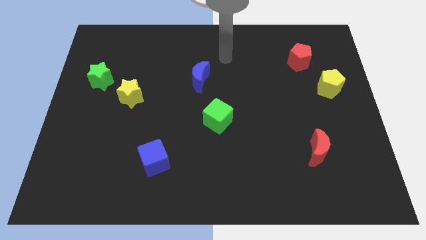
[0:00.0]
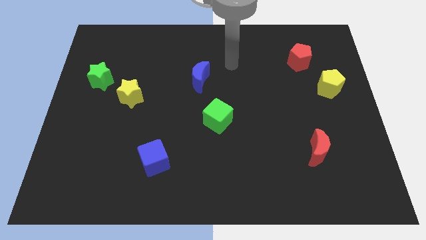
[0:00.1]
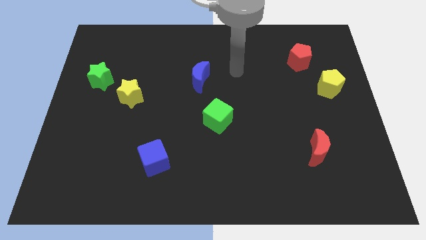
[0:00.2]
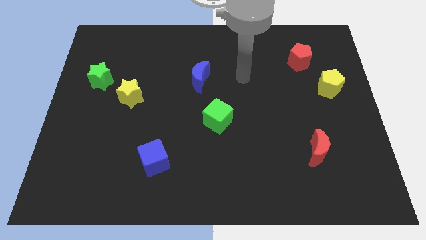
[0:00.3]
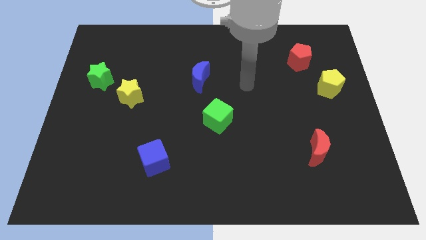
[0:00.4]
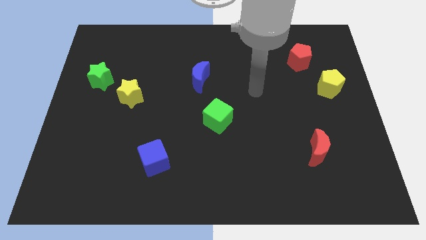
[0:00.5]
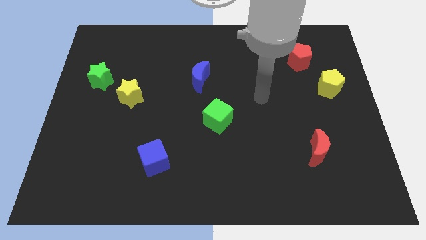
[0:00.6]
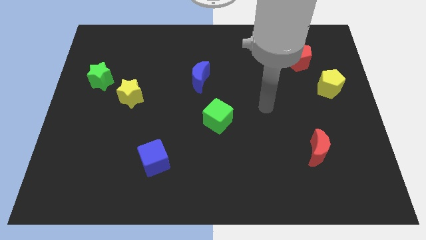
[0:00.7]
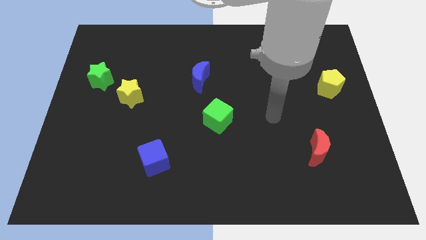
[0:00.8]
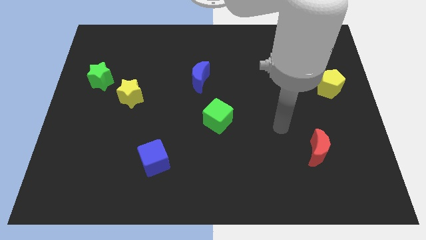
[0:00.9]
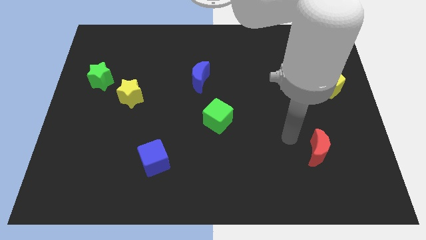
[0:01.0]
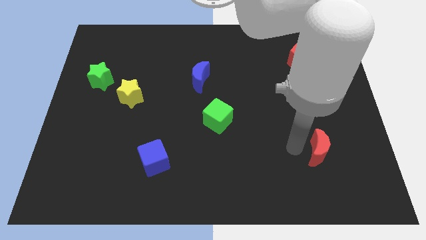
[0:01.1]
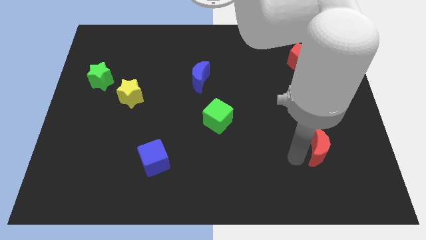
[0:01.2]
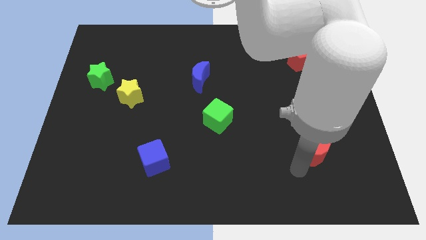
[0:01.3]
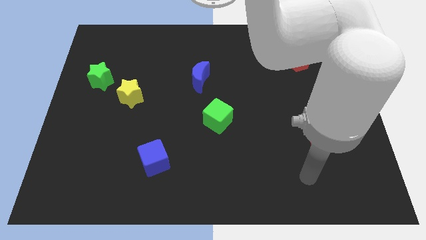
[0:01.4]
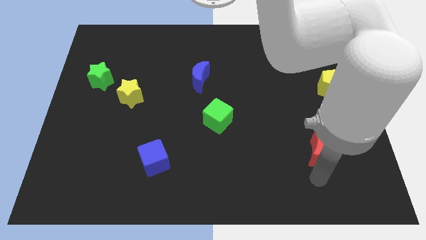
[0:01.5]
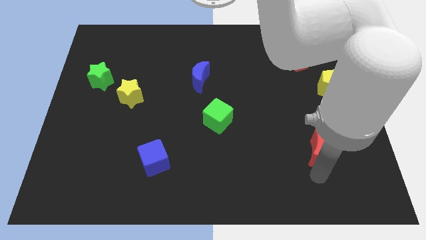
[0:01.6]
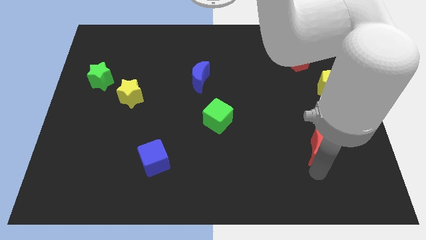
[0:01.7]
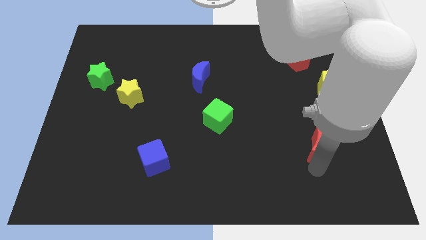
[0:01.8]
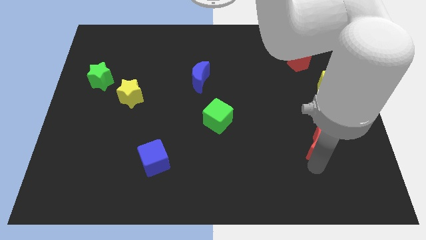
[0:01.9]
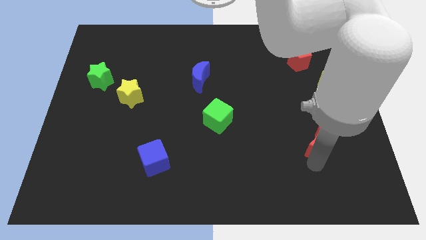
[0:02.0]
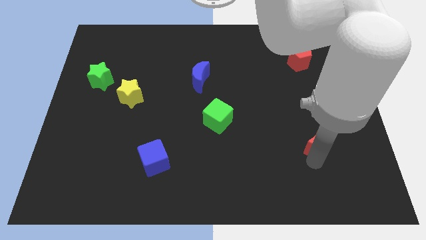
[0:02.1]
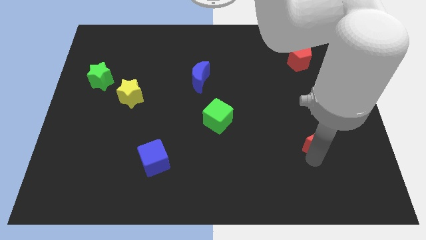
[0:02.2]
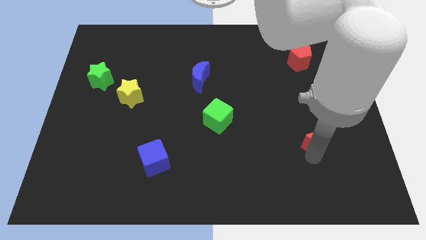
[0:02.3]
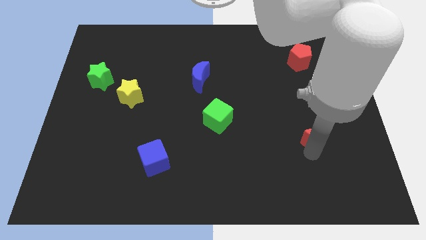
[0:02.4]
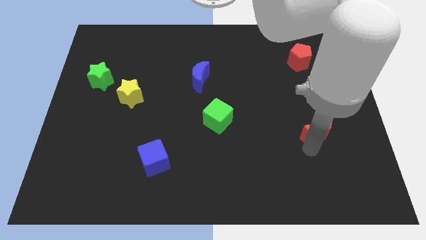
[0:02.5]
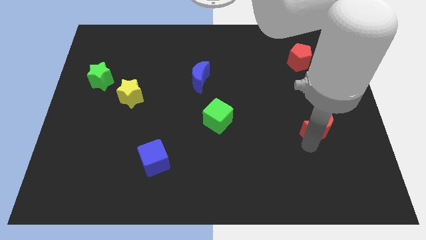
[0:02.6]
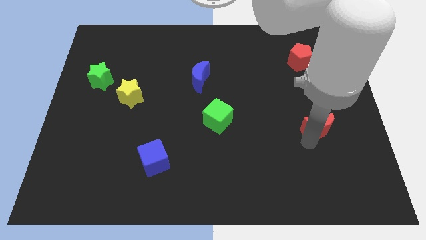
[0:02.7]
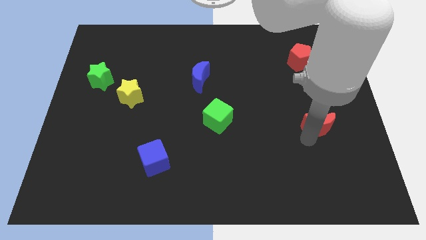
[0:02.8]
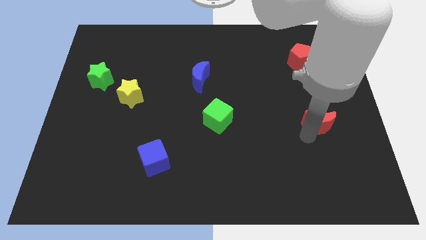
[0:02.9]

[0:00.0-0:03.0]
move the red moon a bit upwards

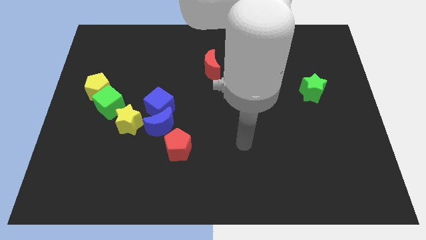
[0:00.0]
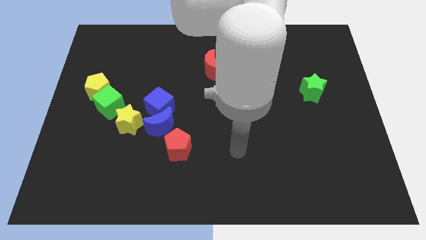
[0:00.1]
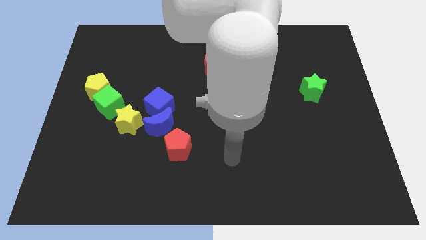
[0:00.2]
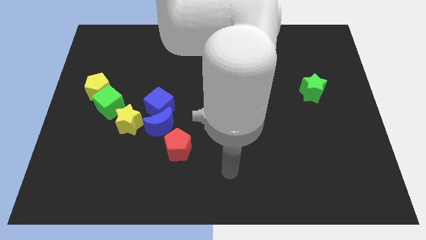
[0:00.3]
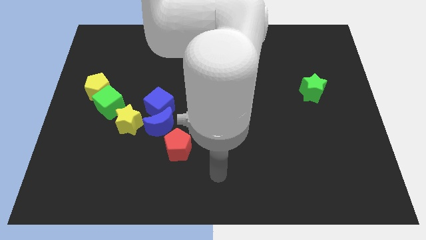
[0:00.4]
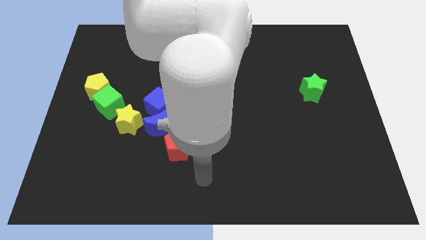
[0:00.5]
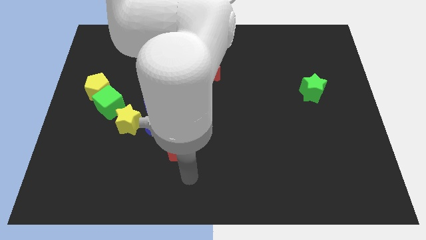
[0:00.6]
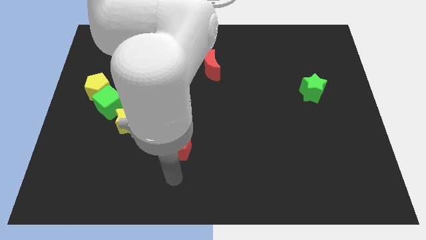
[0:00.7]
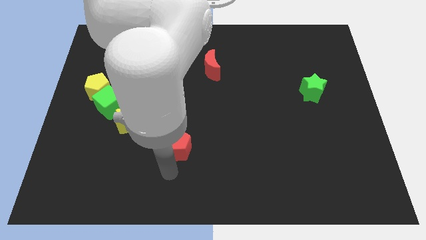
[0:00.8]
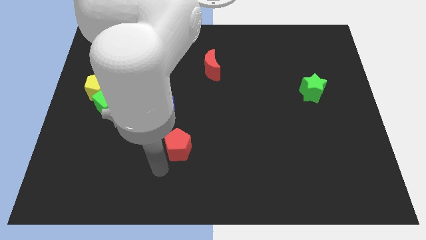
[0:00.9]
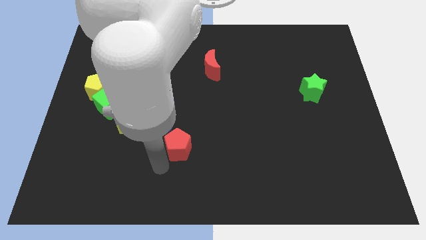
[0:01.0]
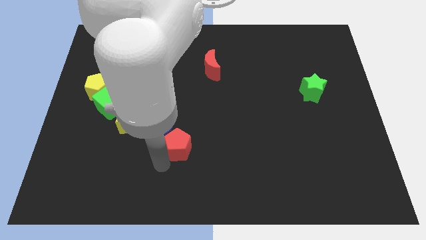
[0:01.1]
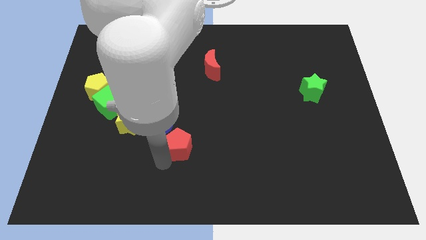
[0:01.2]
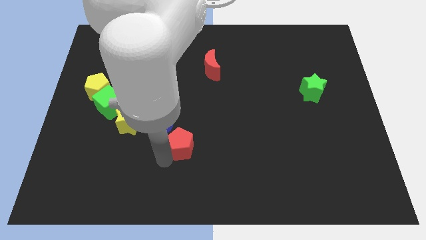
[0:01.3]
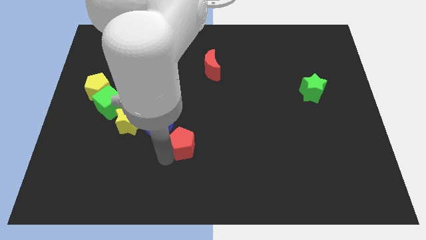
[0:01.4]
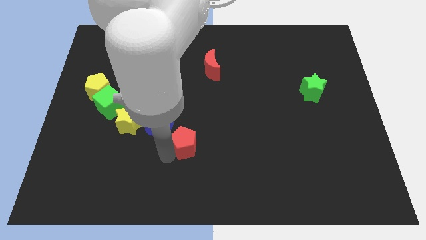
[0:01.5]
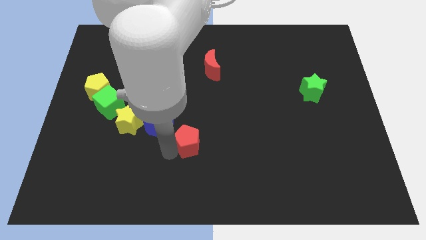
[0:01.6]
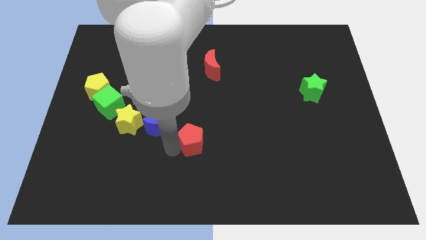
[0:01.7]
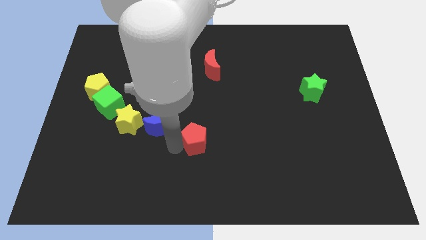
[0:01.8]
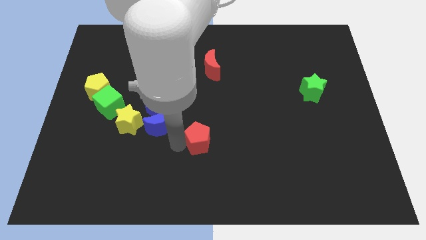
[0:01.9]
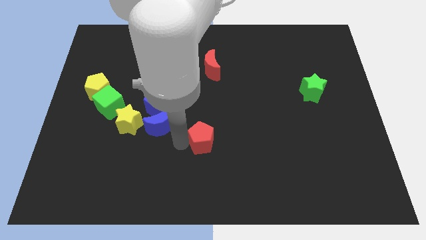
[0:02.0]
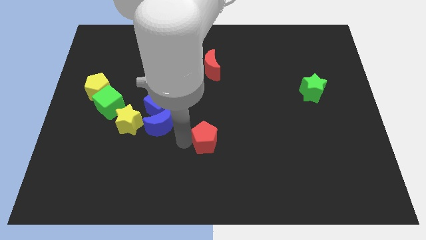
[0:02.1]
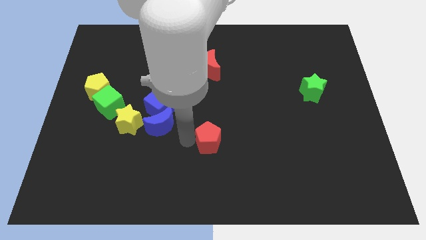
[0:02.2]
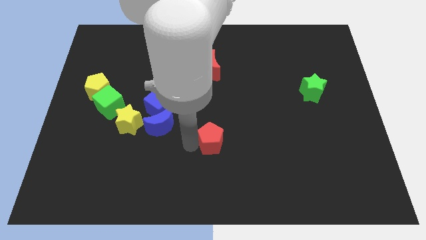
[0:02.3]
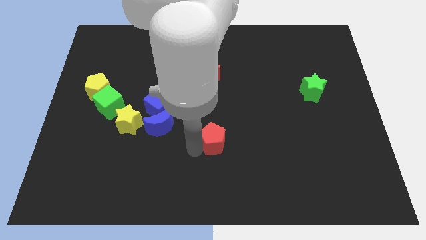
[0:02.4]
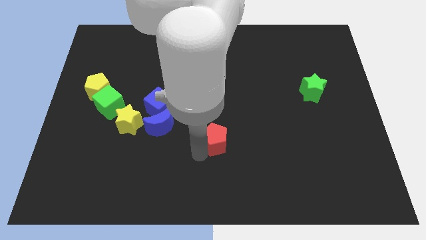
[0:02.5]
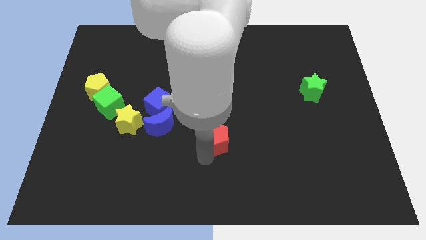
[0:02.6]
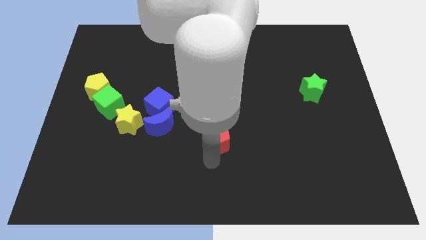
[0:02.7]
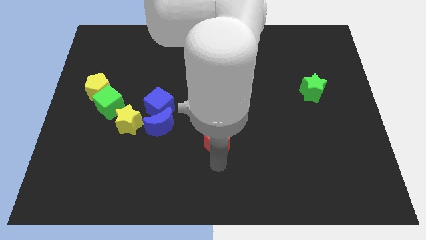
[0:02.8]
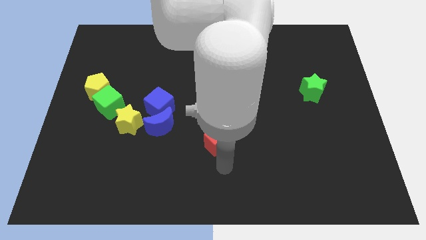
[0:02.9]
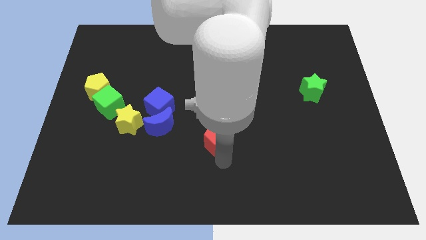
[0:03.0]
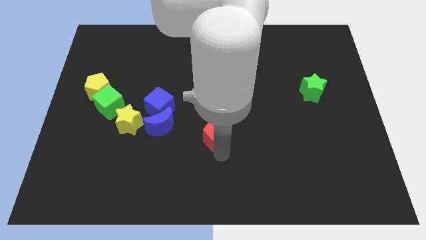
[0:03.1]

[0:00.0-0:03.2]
slightly move the red pentagon up and right diagonally

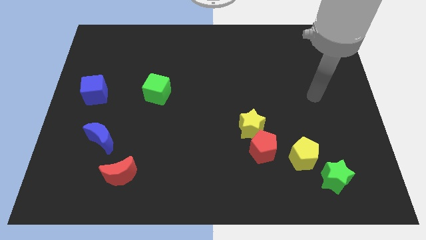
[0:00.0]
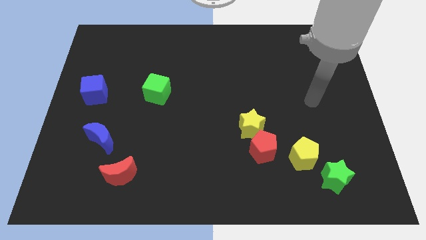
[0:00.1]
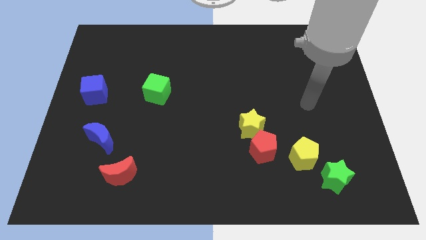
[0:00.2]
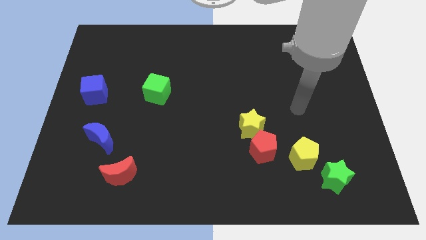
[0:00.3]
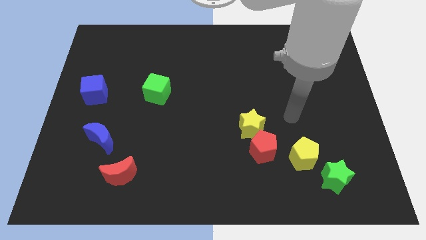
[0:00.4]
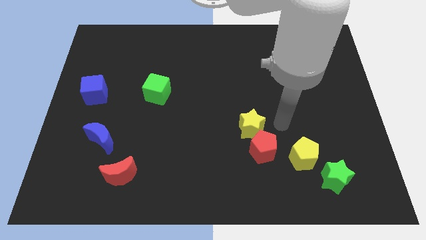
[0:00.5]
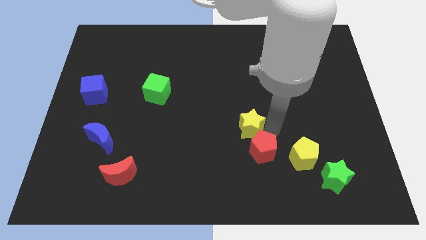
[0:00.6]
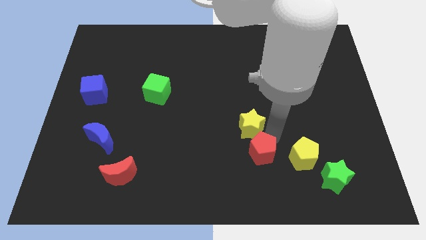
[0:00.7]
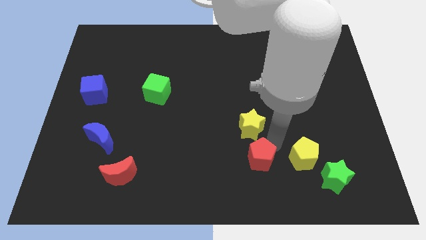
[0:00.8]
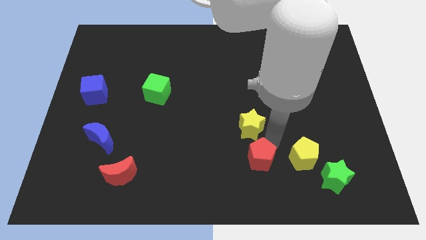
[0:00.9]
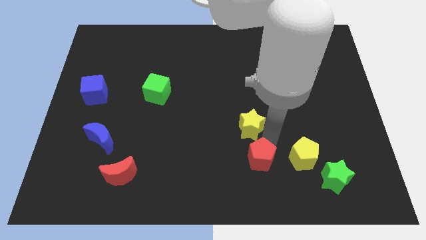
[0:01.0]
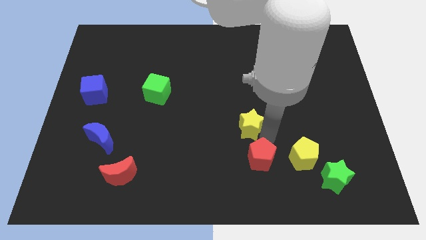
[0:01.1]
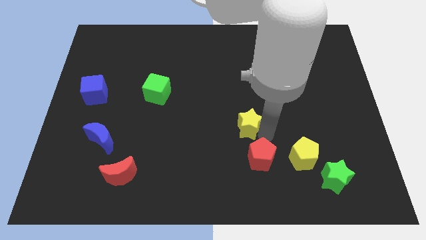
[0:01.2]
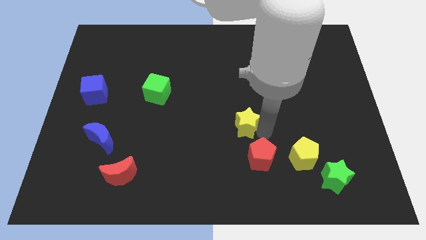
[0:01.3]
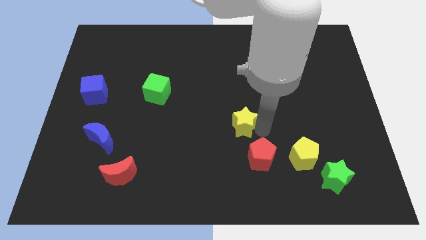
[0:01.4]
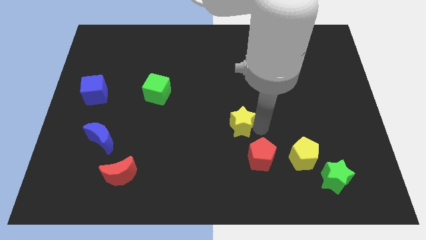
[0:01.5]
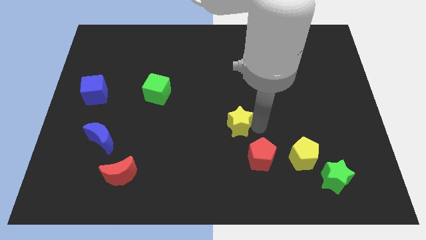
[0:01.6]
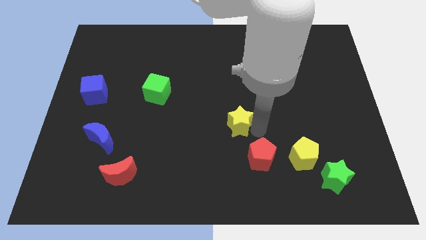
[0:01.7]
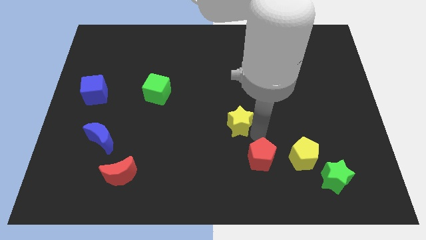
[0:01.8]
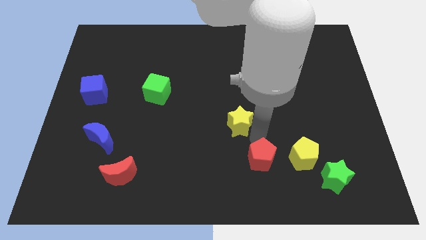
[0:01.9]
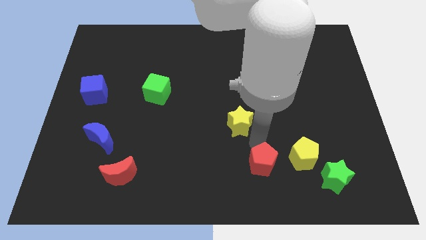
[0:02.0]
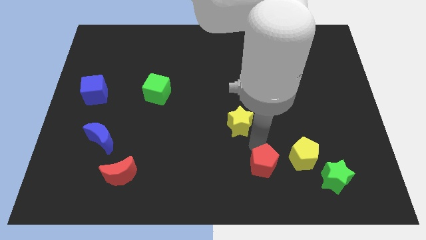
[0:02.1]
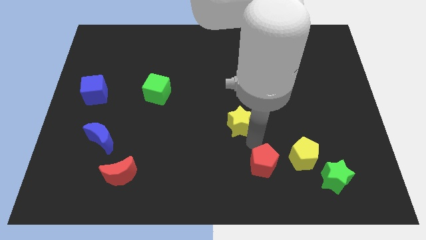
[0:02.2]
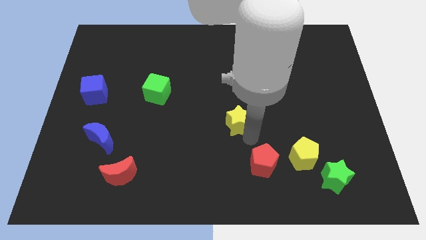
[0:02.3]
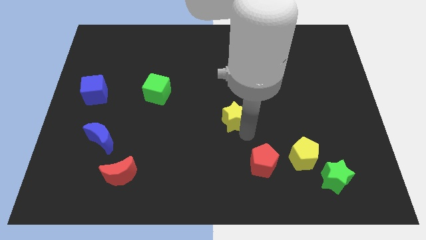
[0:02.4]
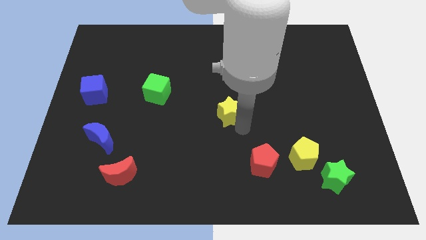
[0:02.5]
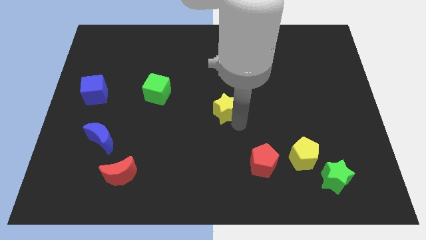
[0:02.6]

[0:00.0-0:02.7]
move the yellow star upwards and left a little bit
